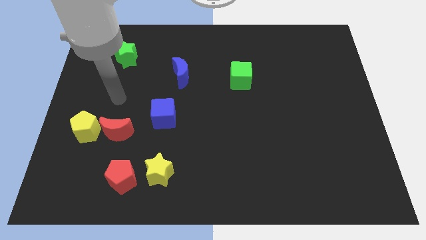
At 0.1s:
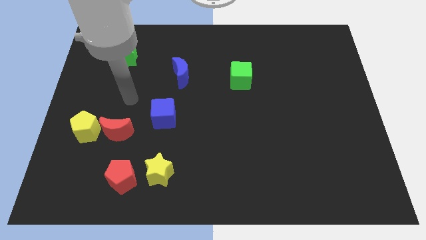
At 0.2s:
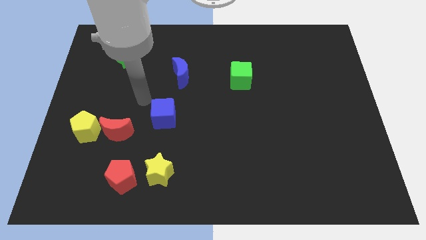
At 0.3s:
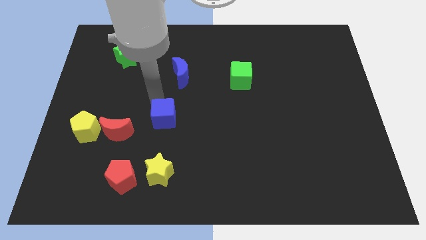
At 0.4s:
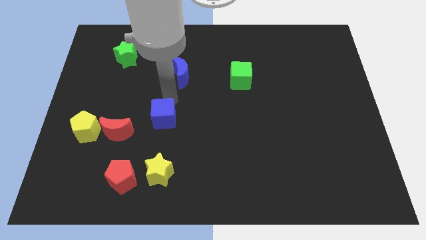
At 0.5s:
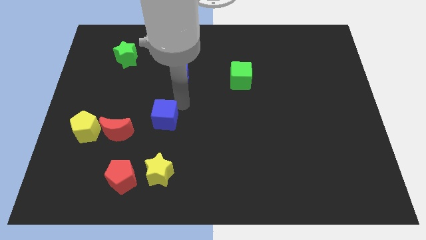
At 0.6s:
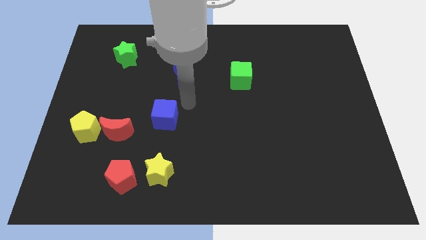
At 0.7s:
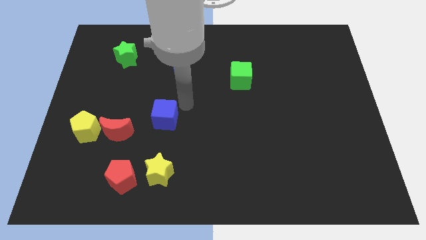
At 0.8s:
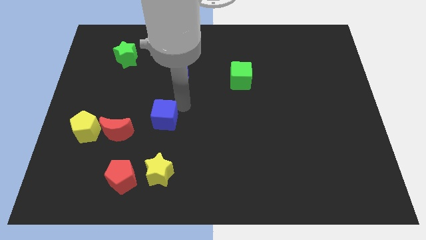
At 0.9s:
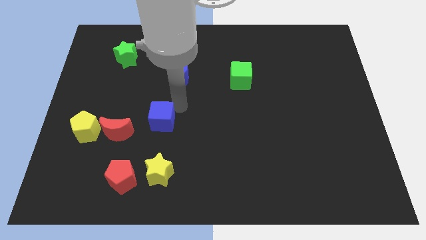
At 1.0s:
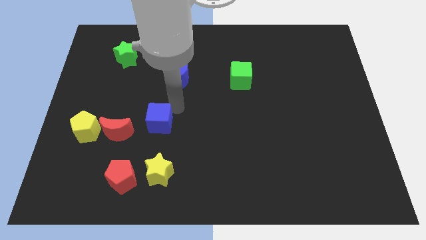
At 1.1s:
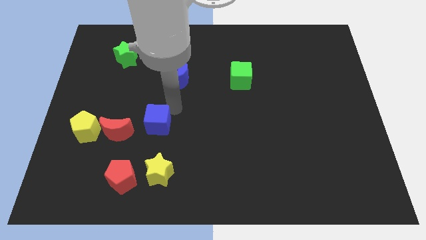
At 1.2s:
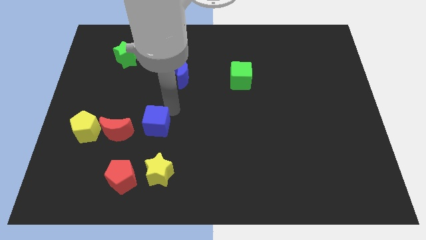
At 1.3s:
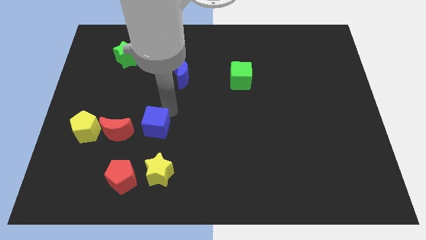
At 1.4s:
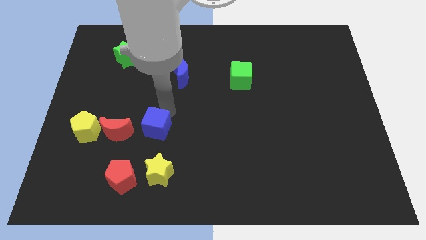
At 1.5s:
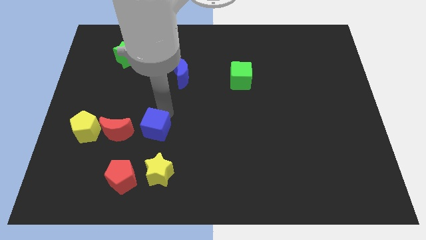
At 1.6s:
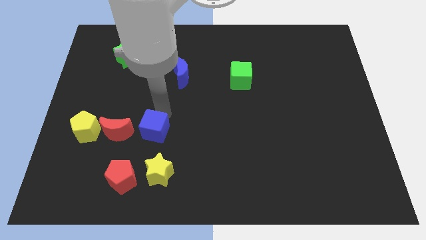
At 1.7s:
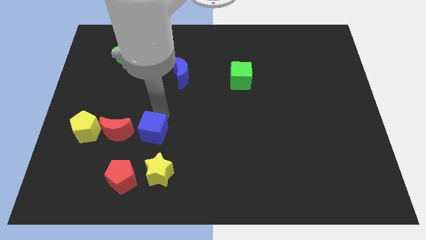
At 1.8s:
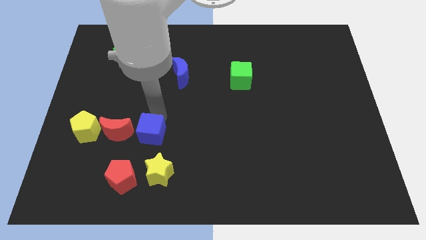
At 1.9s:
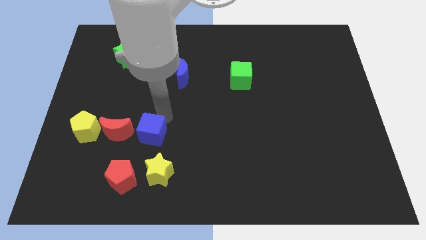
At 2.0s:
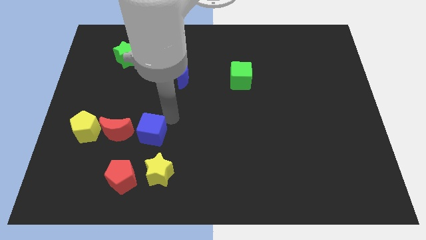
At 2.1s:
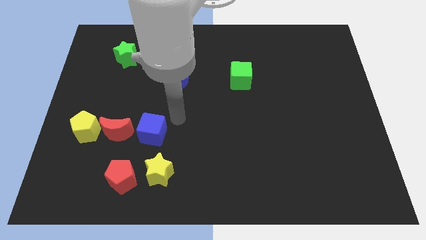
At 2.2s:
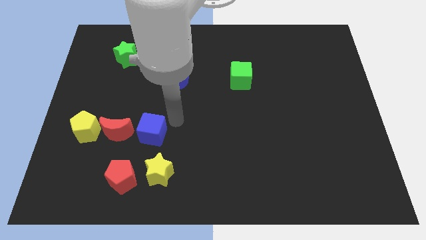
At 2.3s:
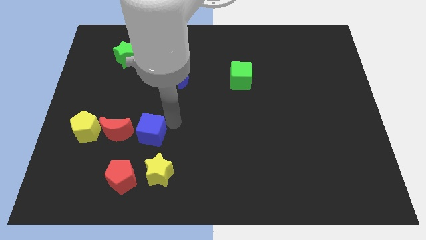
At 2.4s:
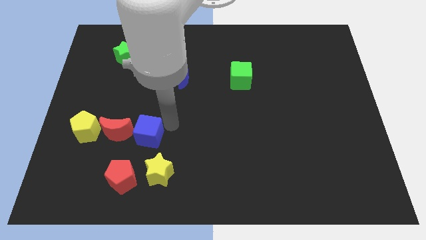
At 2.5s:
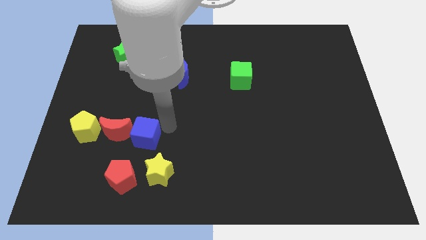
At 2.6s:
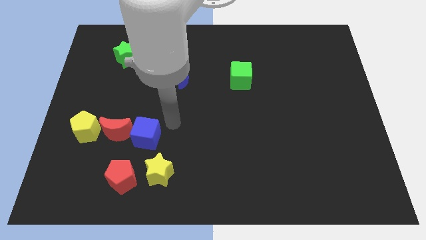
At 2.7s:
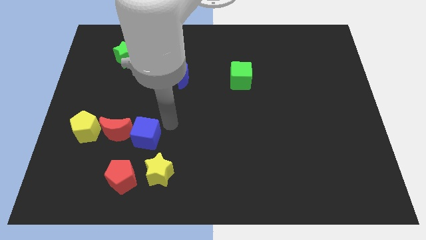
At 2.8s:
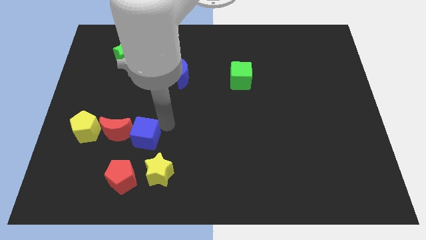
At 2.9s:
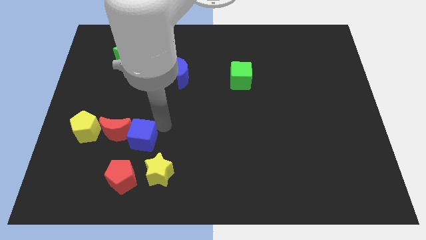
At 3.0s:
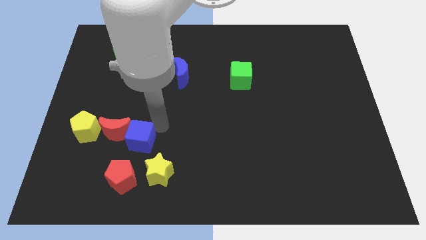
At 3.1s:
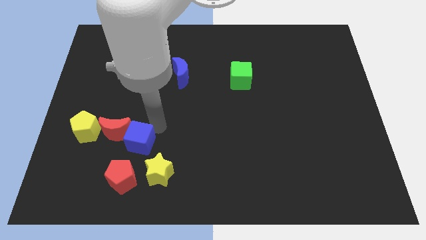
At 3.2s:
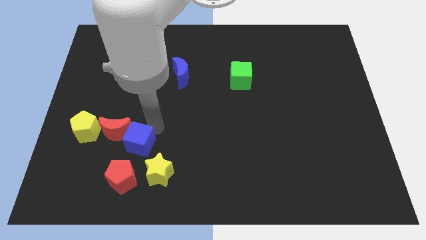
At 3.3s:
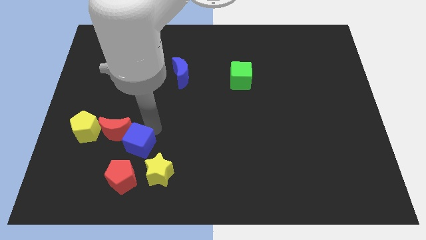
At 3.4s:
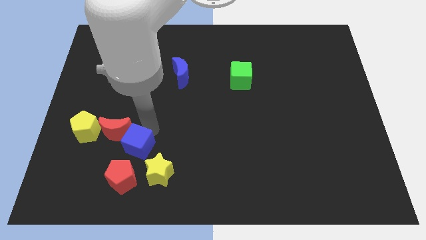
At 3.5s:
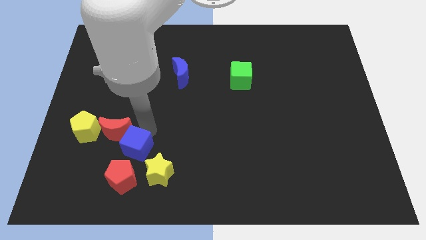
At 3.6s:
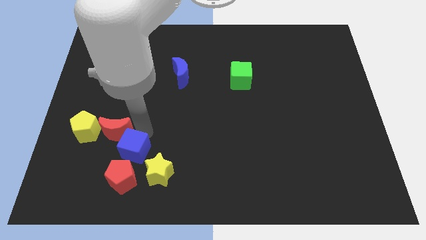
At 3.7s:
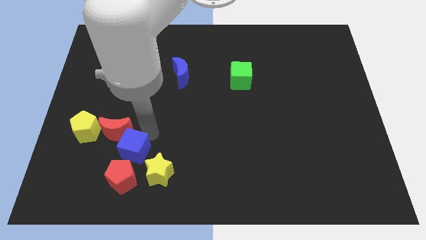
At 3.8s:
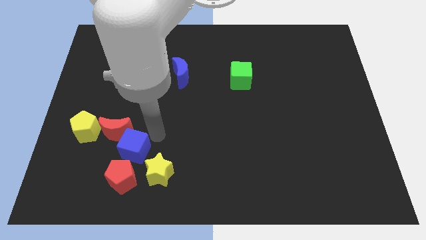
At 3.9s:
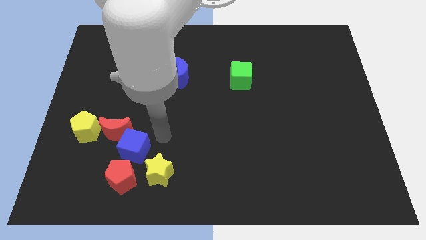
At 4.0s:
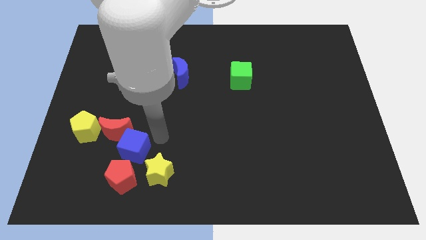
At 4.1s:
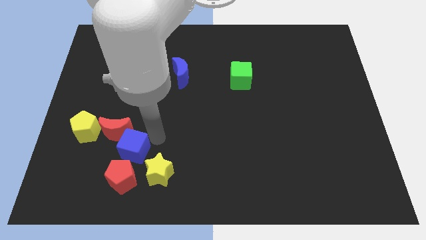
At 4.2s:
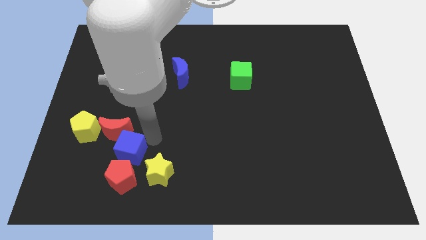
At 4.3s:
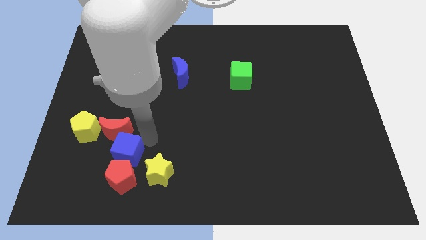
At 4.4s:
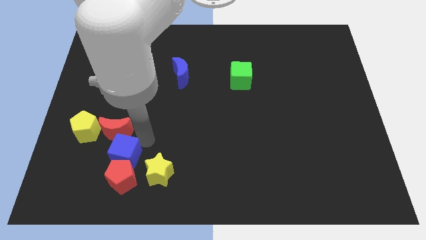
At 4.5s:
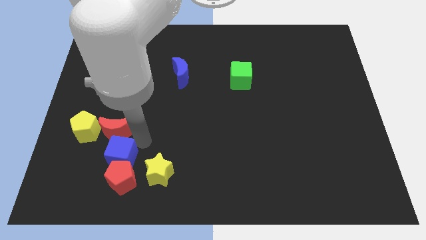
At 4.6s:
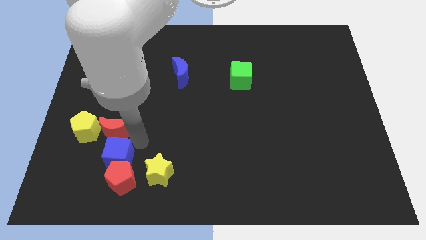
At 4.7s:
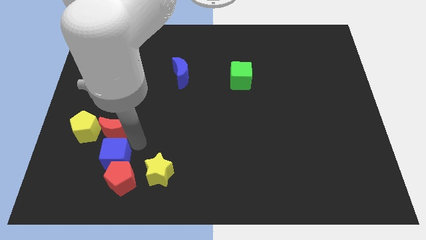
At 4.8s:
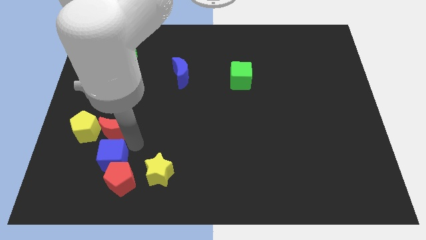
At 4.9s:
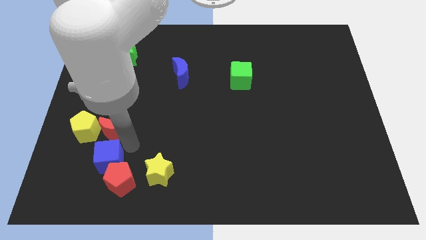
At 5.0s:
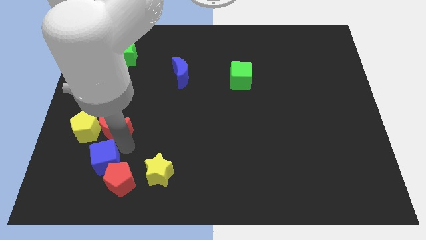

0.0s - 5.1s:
put the blue cube left of the red pentagon

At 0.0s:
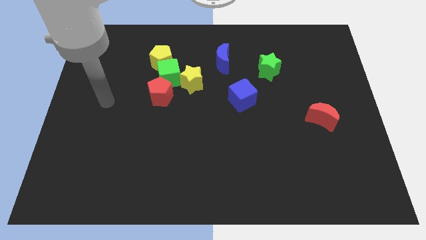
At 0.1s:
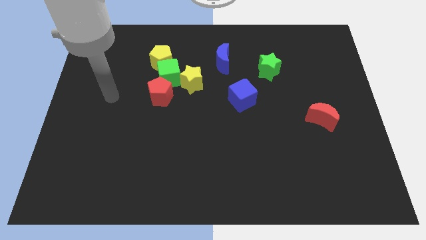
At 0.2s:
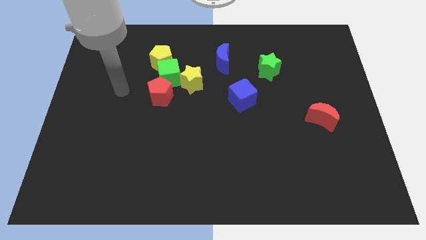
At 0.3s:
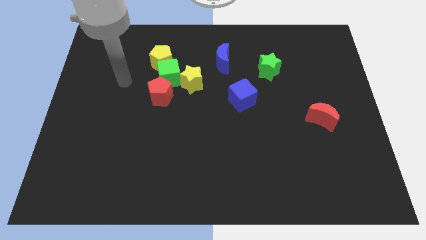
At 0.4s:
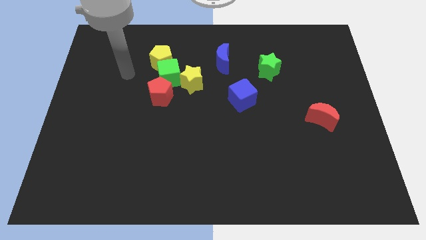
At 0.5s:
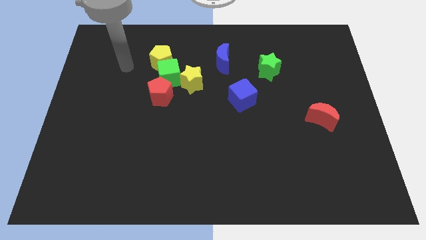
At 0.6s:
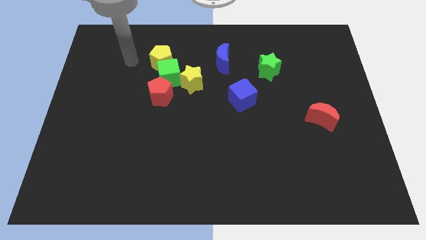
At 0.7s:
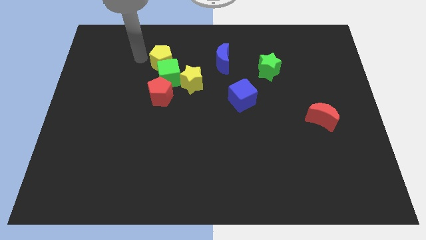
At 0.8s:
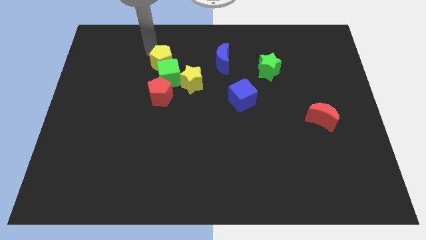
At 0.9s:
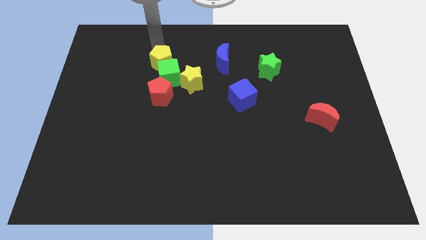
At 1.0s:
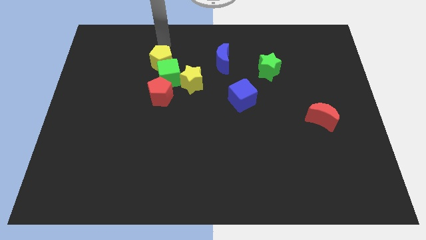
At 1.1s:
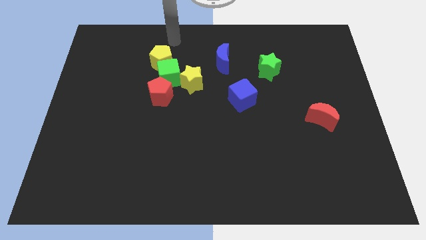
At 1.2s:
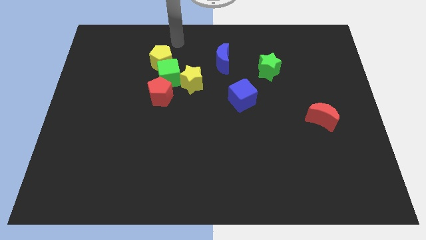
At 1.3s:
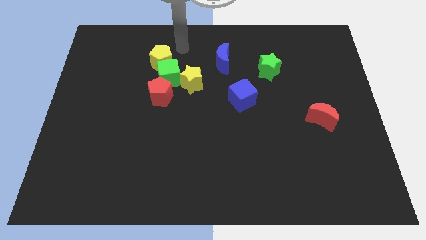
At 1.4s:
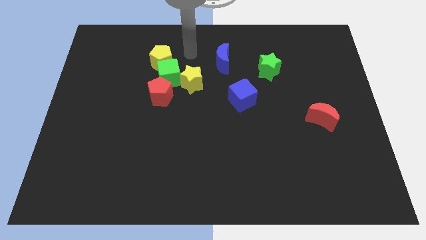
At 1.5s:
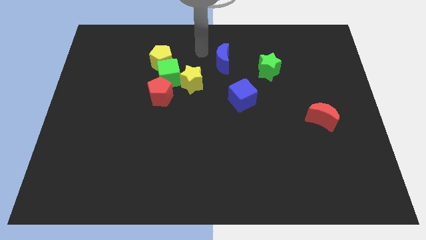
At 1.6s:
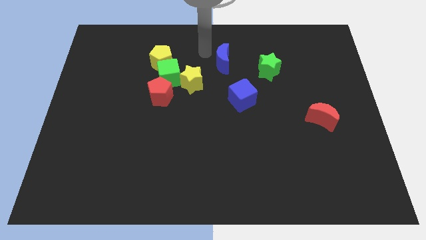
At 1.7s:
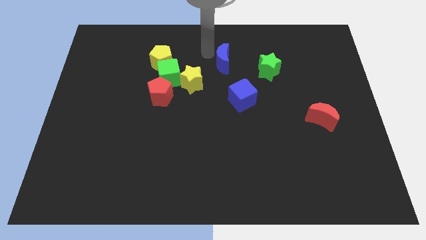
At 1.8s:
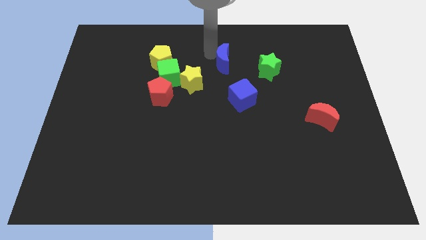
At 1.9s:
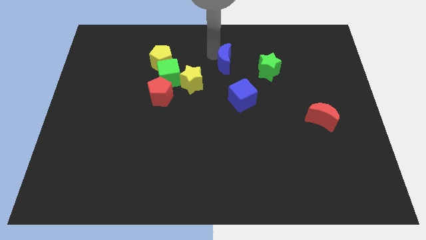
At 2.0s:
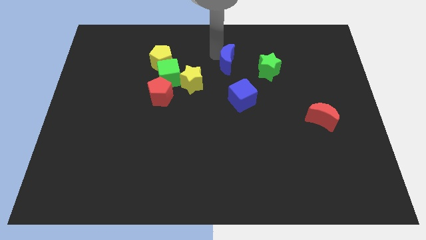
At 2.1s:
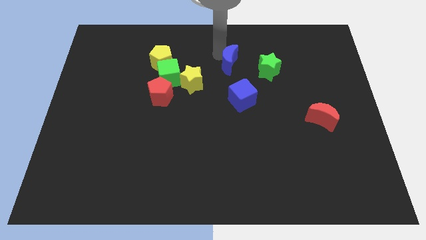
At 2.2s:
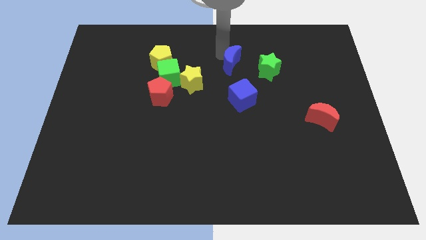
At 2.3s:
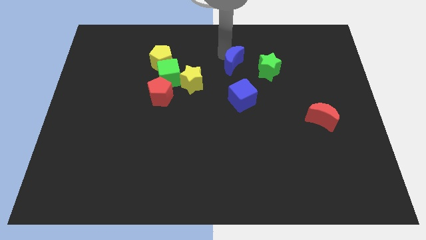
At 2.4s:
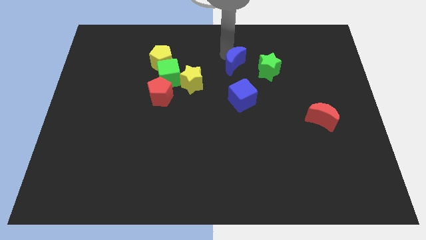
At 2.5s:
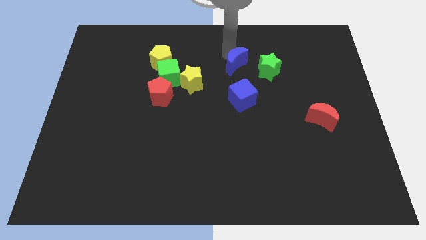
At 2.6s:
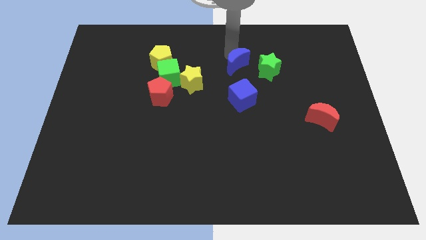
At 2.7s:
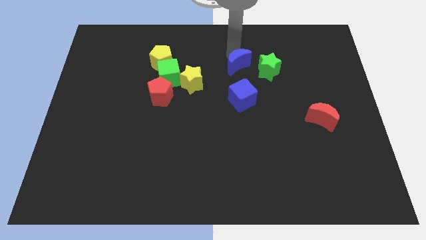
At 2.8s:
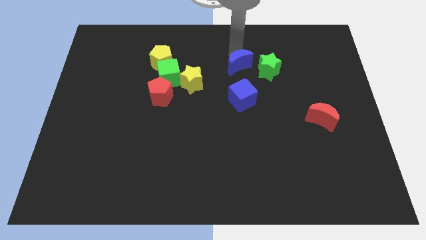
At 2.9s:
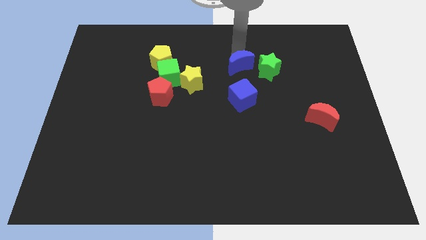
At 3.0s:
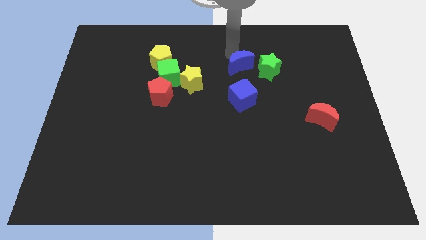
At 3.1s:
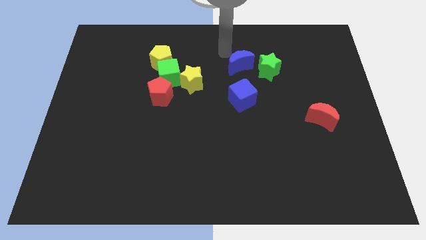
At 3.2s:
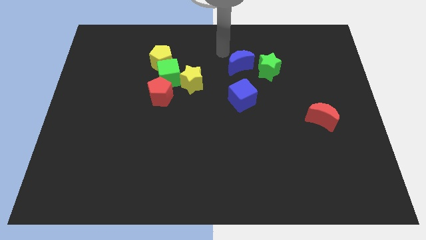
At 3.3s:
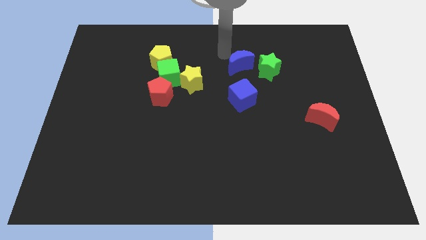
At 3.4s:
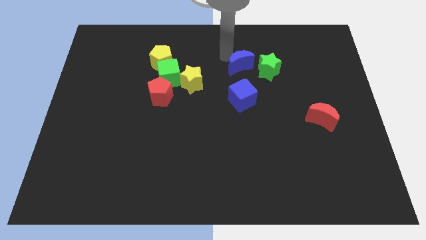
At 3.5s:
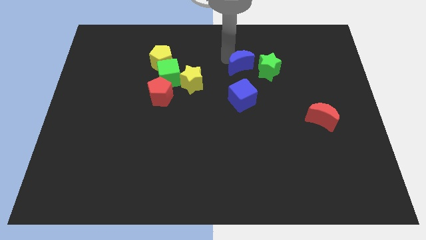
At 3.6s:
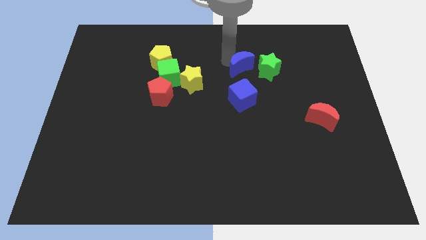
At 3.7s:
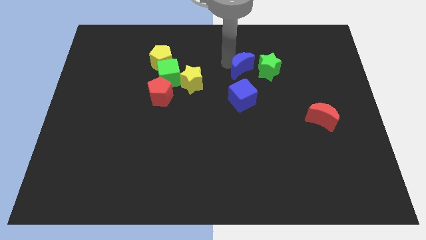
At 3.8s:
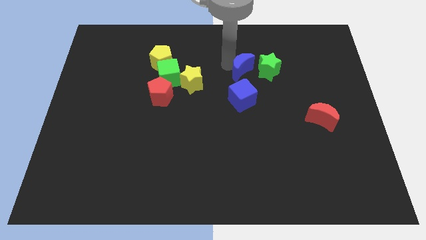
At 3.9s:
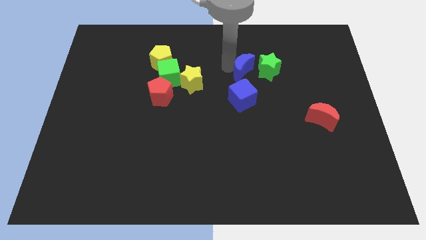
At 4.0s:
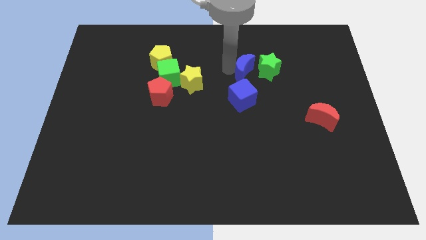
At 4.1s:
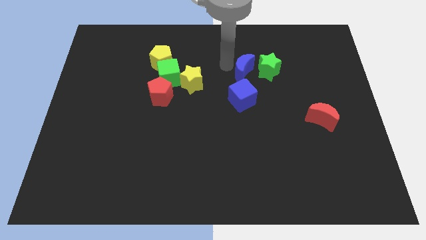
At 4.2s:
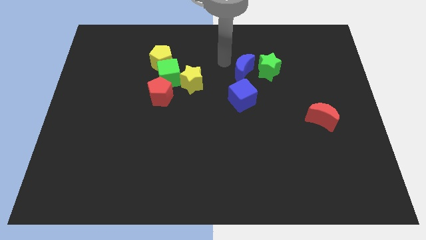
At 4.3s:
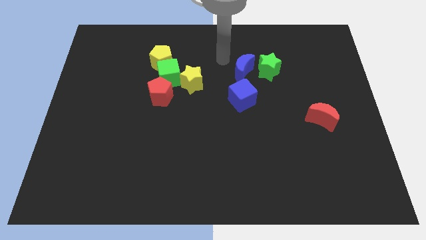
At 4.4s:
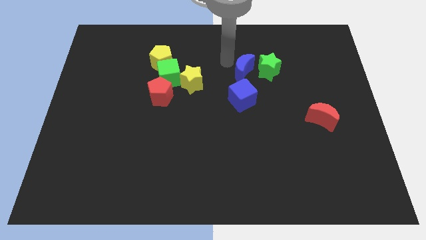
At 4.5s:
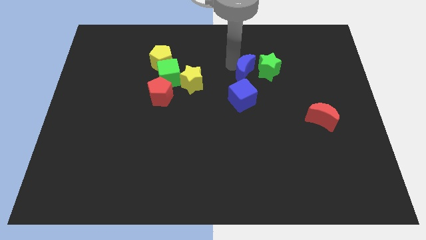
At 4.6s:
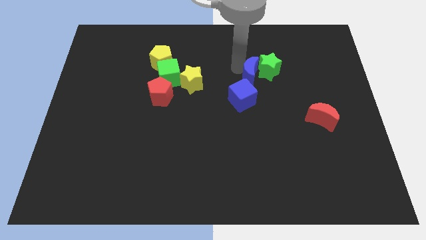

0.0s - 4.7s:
move the blue moon to the top right side of the blue cube
